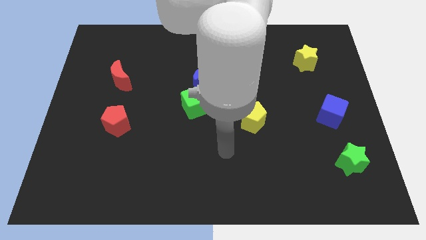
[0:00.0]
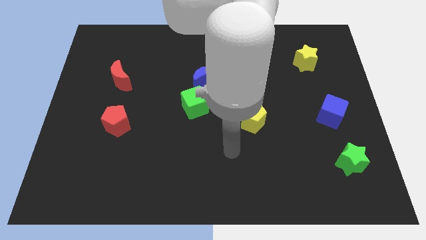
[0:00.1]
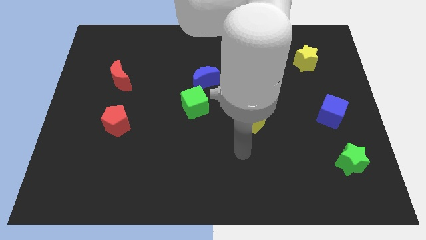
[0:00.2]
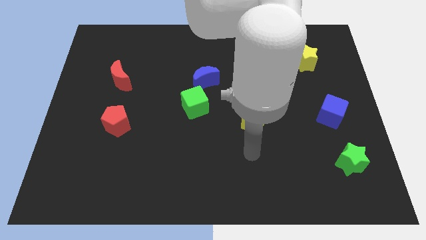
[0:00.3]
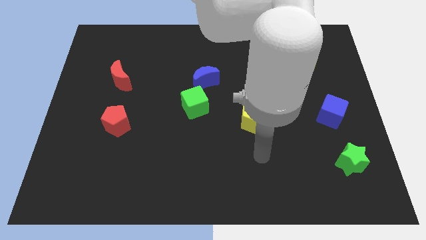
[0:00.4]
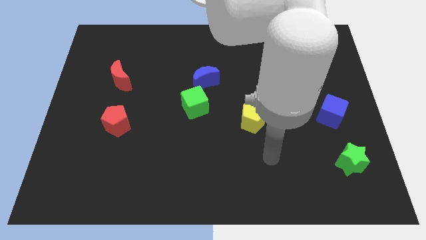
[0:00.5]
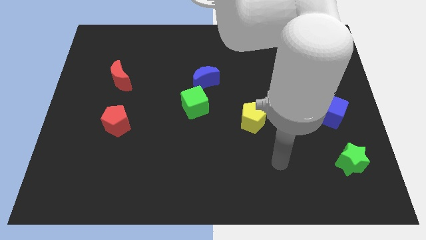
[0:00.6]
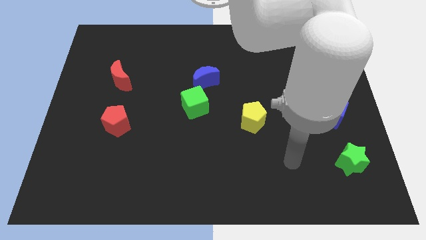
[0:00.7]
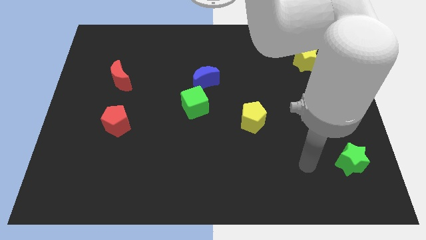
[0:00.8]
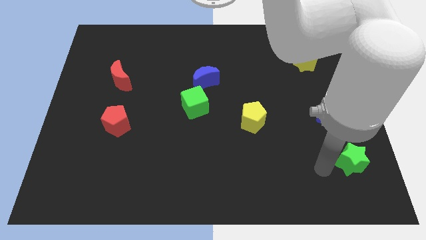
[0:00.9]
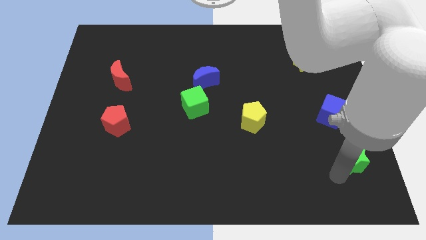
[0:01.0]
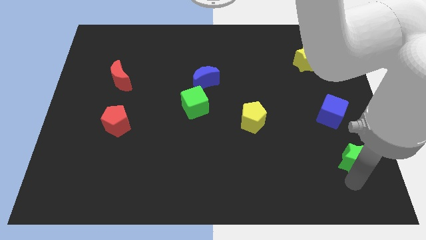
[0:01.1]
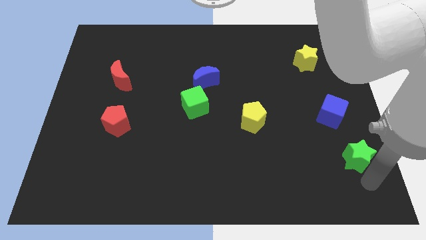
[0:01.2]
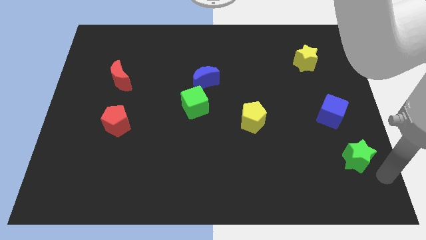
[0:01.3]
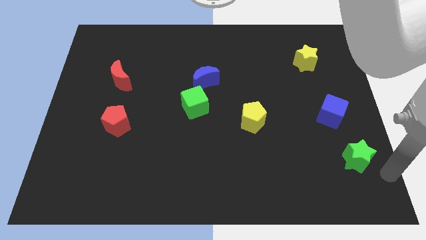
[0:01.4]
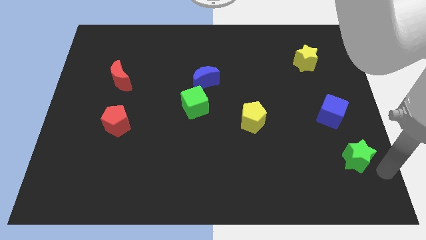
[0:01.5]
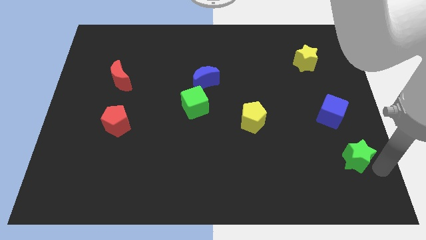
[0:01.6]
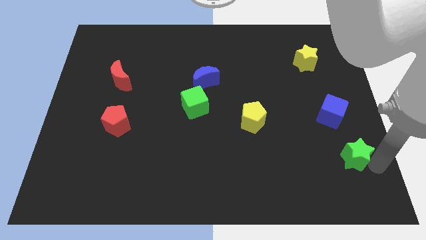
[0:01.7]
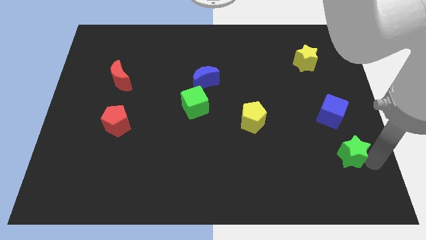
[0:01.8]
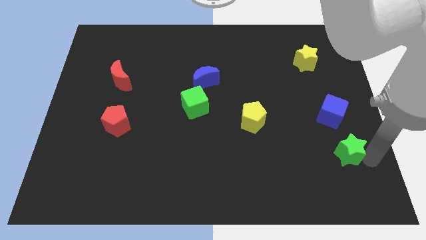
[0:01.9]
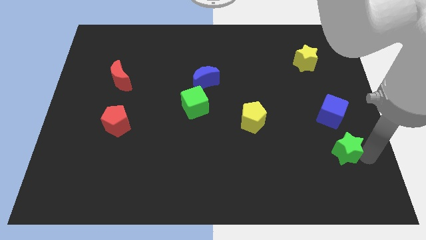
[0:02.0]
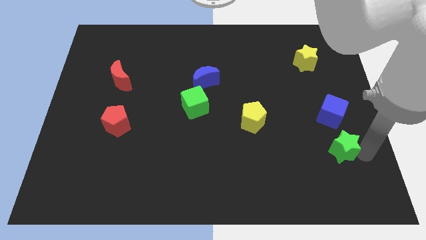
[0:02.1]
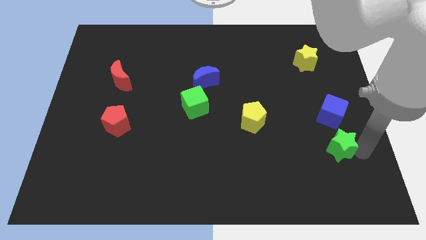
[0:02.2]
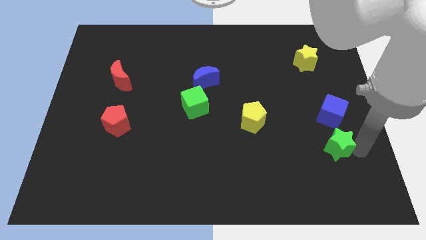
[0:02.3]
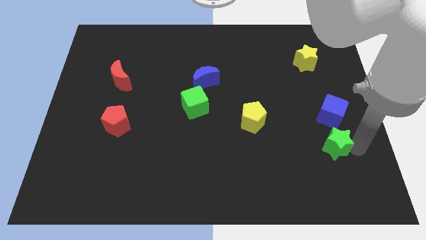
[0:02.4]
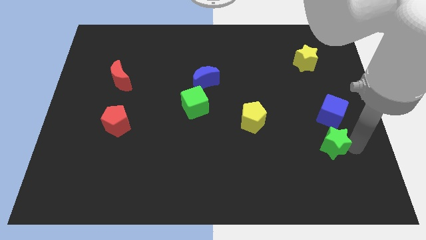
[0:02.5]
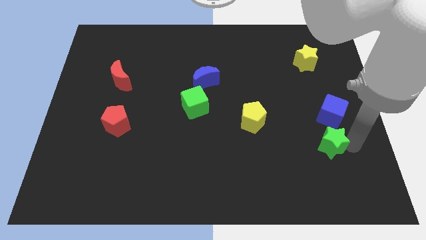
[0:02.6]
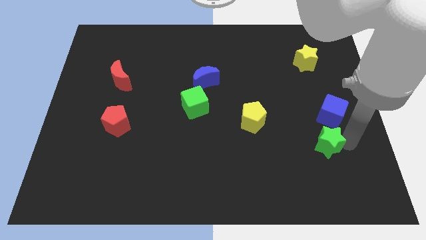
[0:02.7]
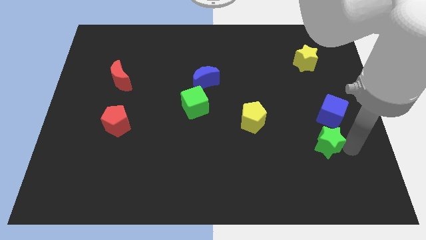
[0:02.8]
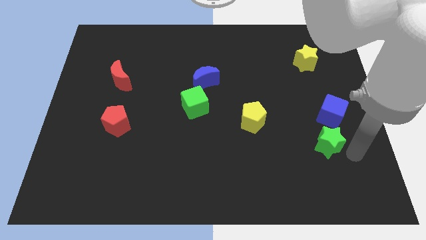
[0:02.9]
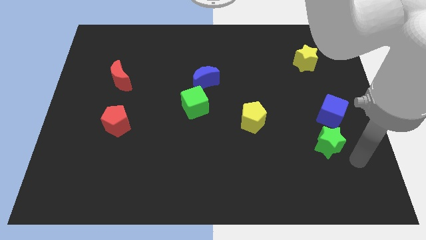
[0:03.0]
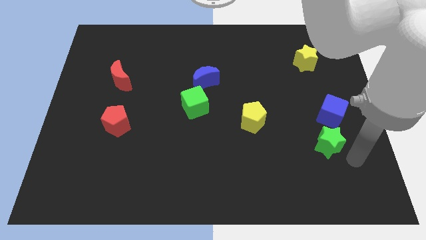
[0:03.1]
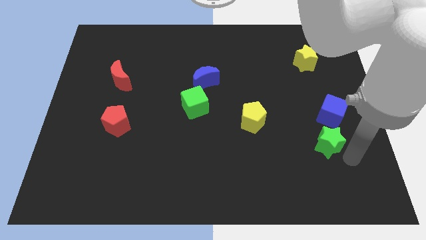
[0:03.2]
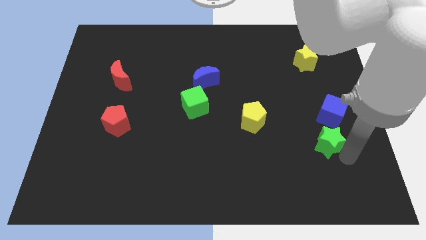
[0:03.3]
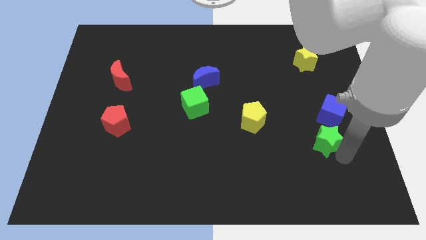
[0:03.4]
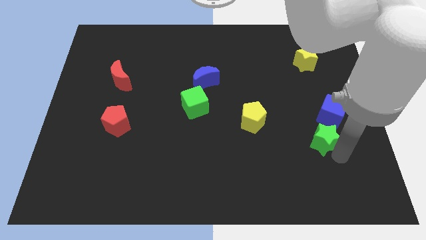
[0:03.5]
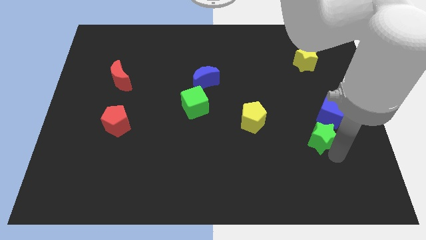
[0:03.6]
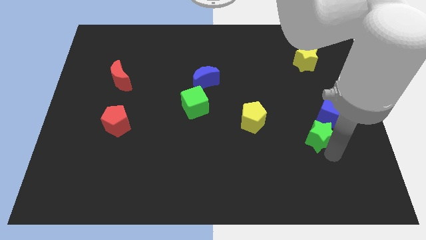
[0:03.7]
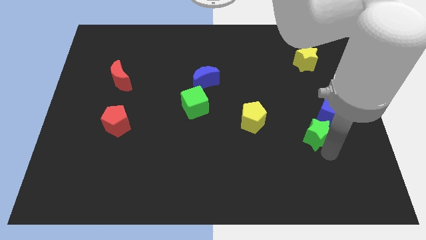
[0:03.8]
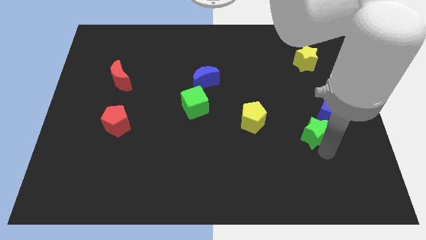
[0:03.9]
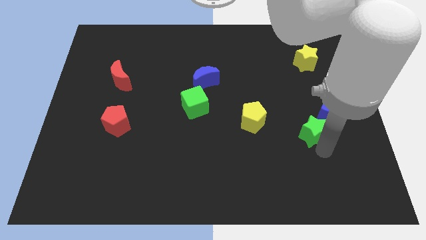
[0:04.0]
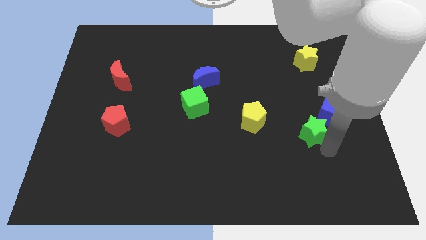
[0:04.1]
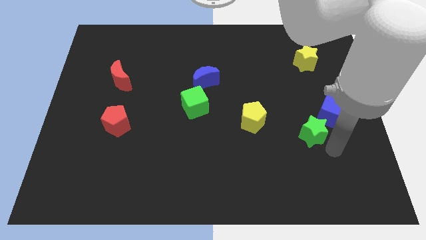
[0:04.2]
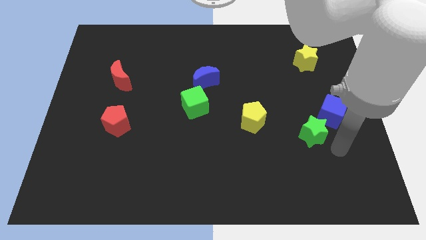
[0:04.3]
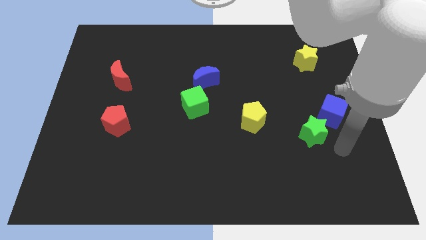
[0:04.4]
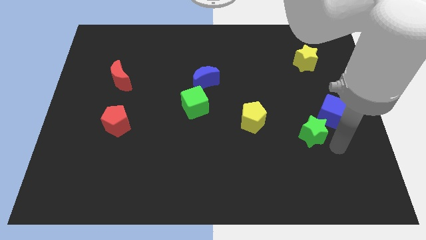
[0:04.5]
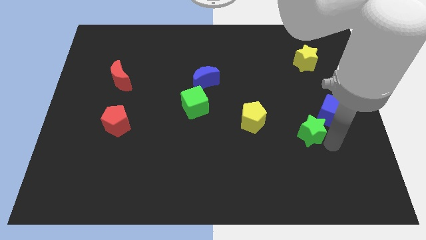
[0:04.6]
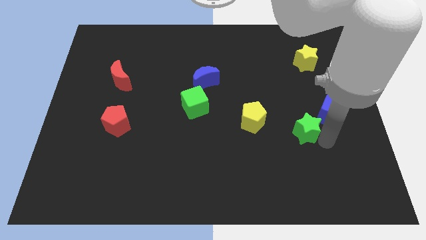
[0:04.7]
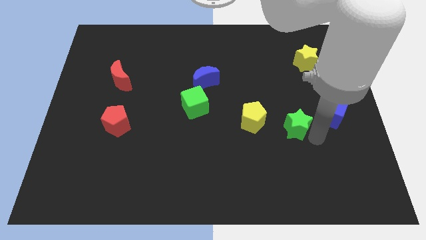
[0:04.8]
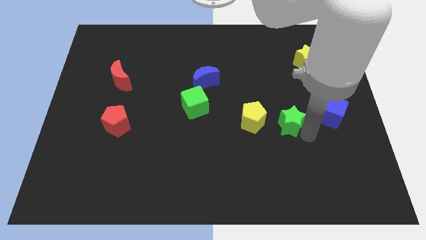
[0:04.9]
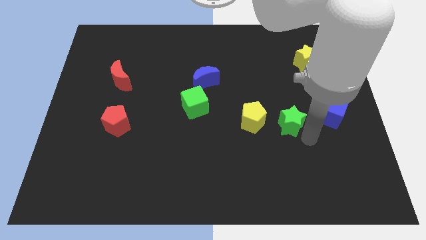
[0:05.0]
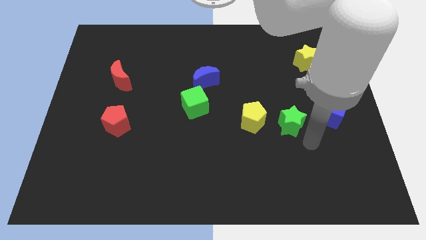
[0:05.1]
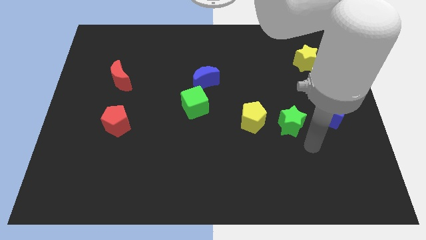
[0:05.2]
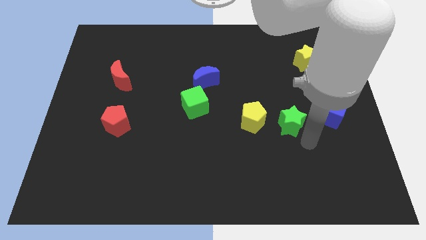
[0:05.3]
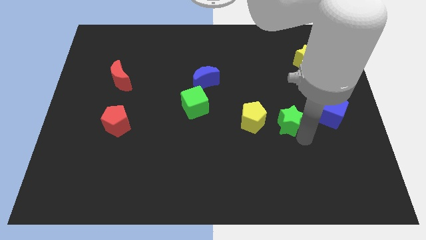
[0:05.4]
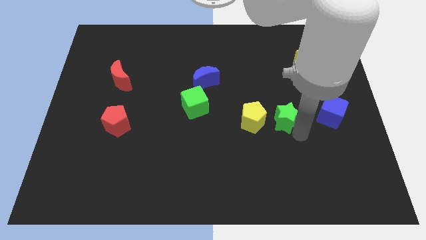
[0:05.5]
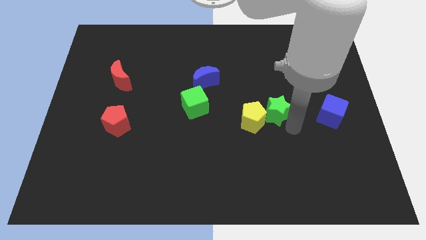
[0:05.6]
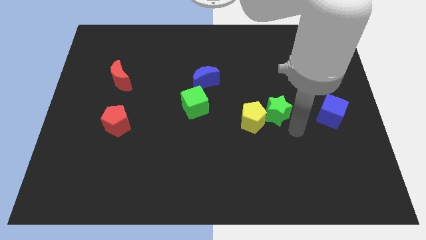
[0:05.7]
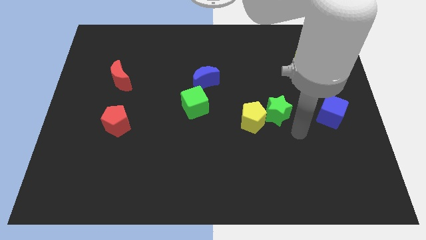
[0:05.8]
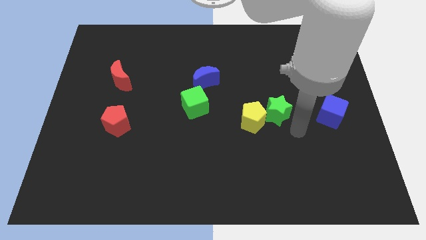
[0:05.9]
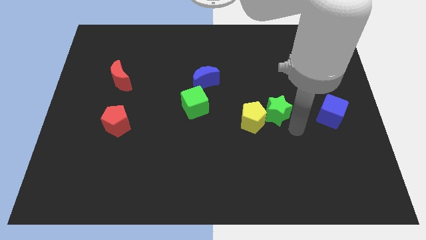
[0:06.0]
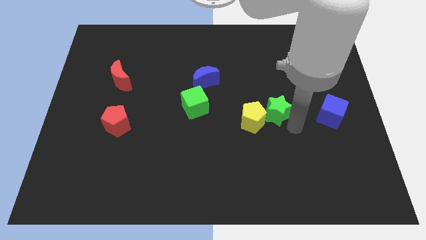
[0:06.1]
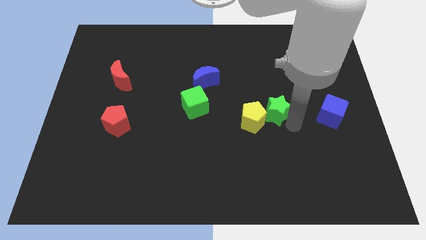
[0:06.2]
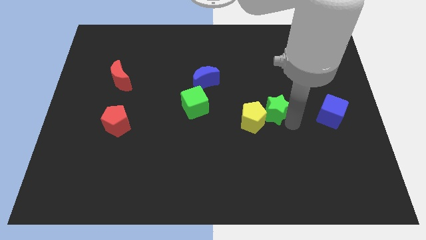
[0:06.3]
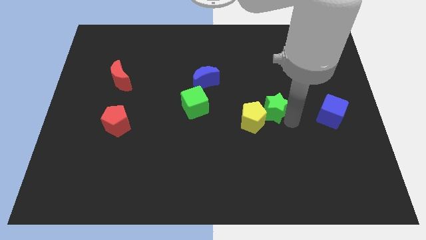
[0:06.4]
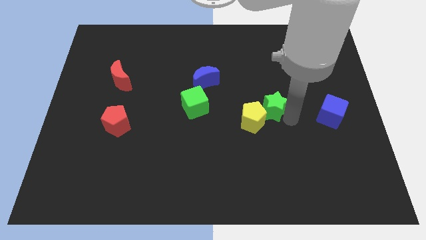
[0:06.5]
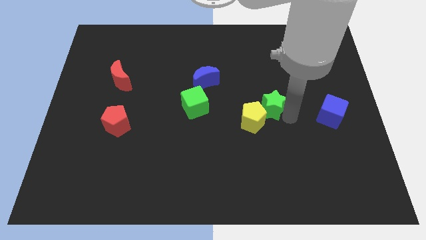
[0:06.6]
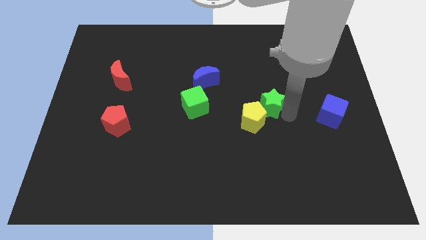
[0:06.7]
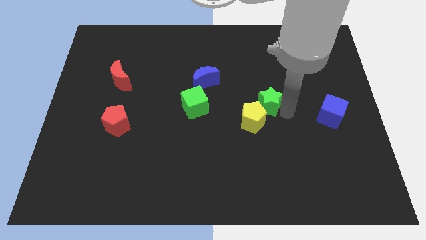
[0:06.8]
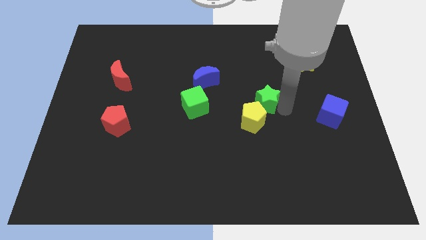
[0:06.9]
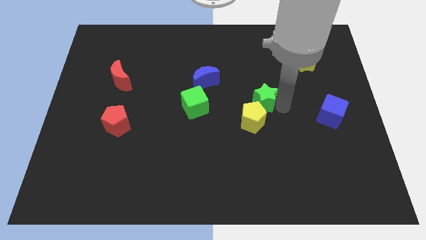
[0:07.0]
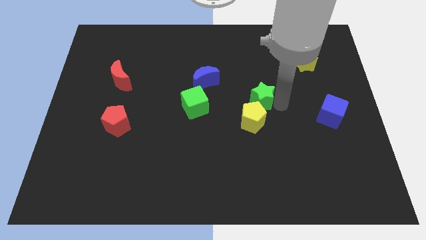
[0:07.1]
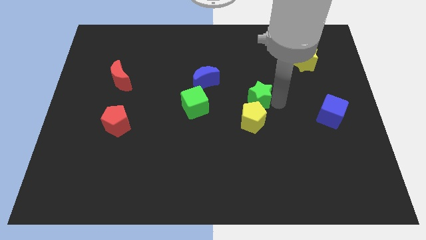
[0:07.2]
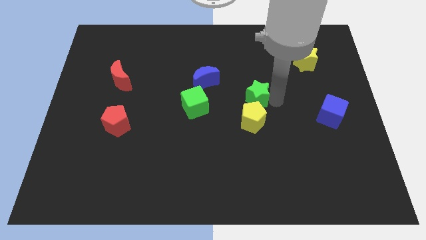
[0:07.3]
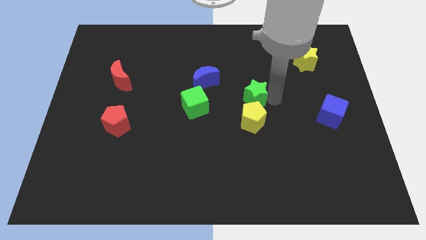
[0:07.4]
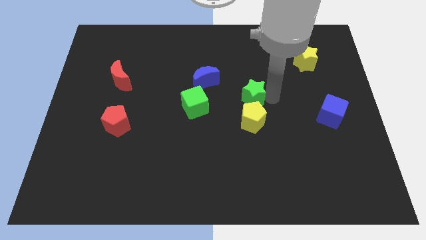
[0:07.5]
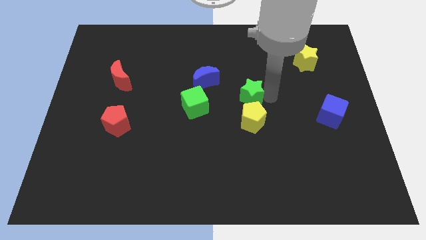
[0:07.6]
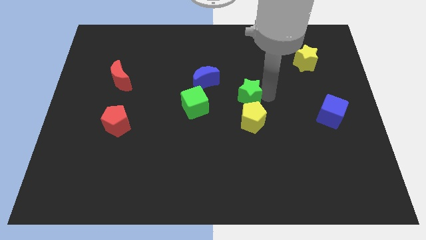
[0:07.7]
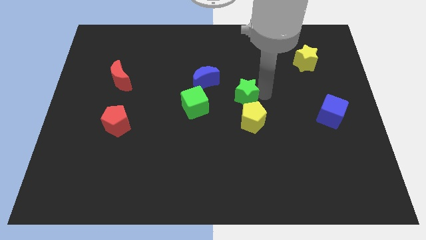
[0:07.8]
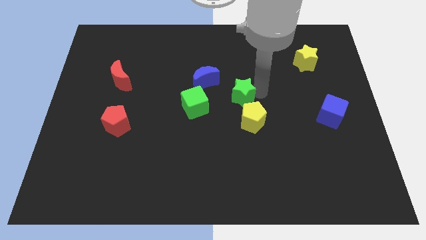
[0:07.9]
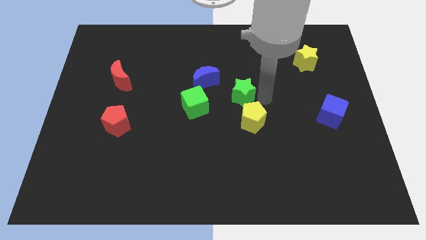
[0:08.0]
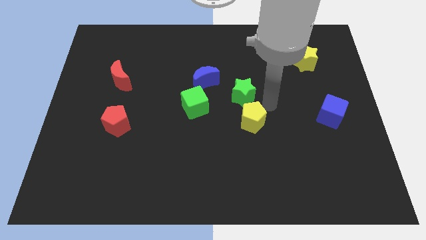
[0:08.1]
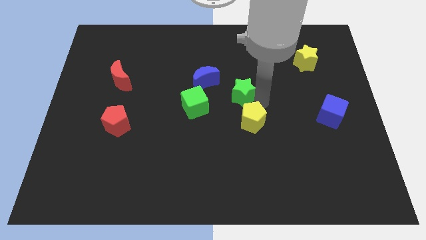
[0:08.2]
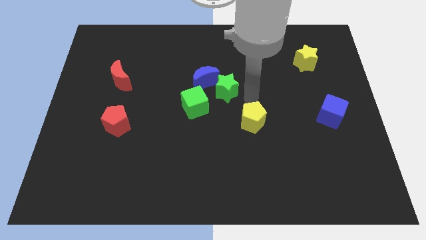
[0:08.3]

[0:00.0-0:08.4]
slide the green star towards the blue moon
